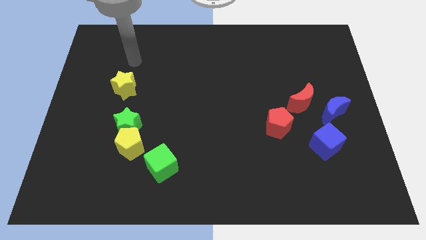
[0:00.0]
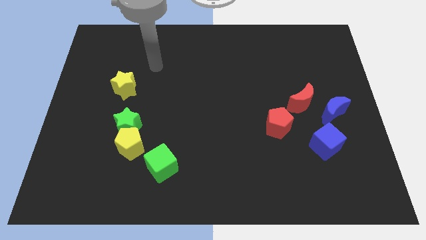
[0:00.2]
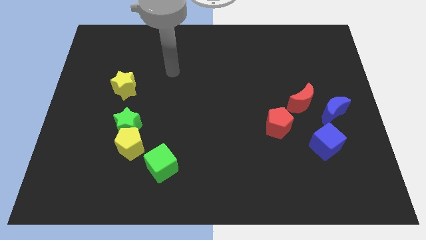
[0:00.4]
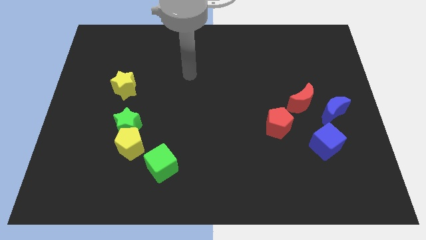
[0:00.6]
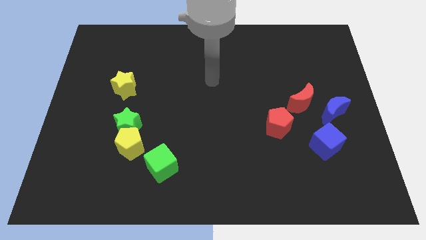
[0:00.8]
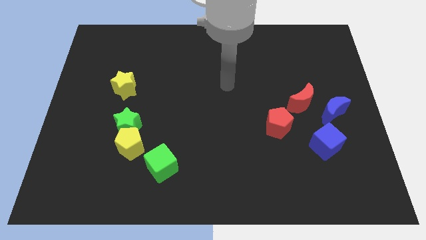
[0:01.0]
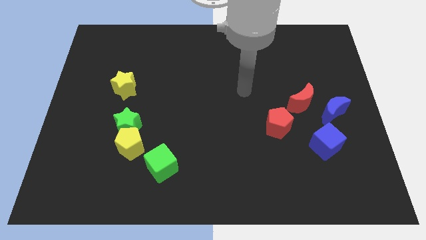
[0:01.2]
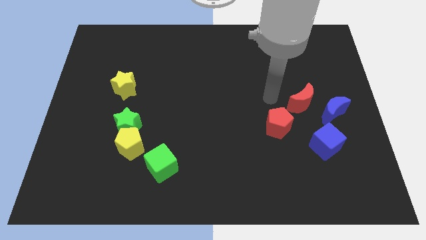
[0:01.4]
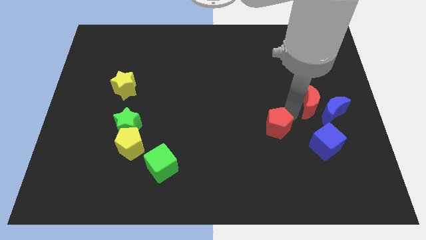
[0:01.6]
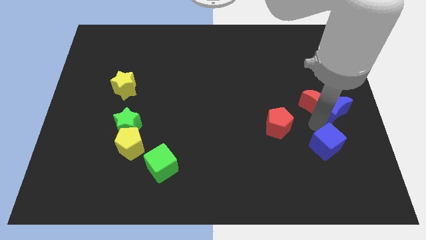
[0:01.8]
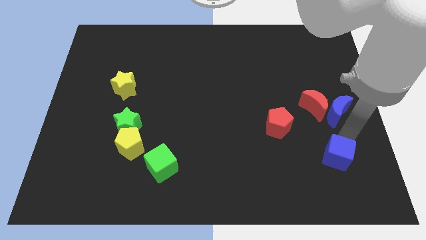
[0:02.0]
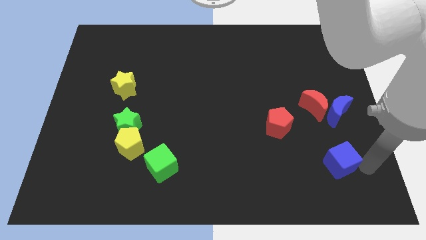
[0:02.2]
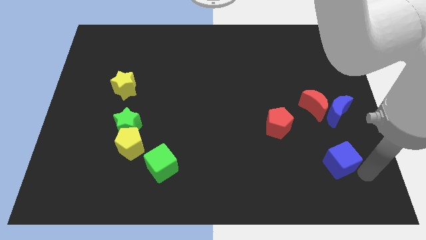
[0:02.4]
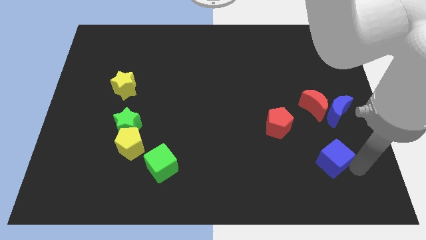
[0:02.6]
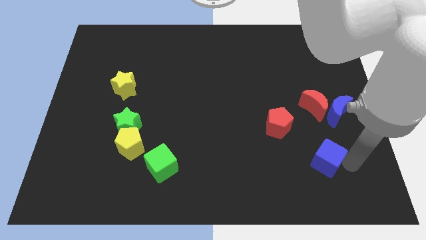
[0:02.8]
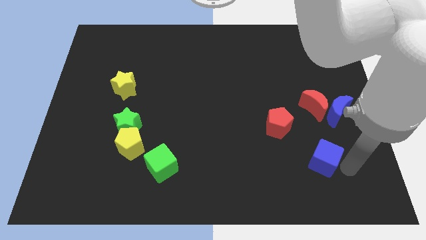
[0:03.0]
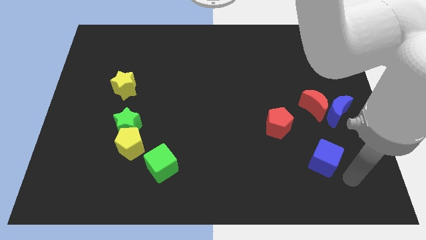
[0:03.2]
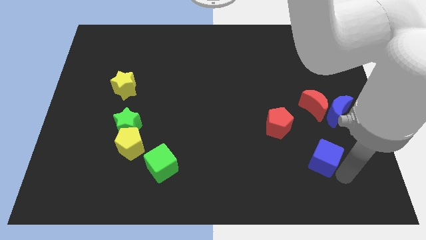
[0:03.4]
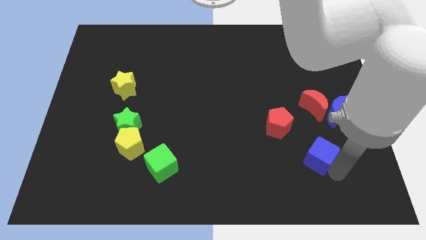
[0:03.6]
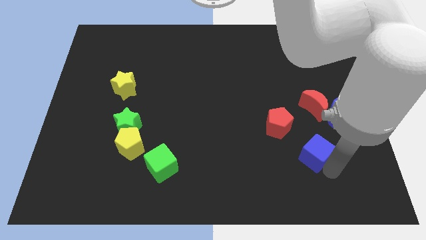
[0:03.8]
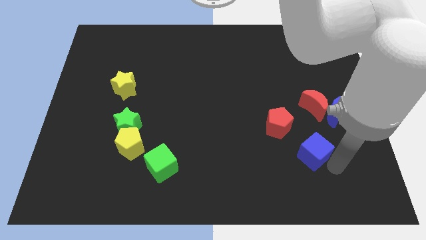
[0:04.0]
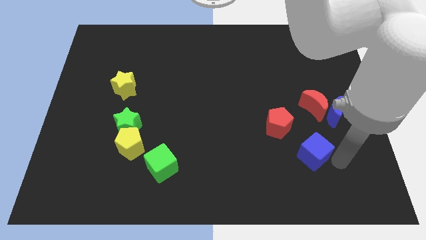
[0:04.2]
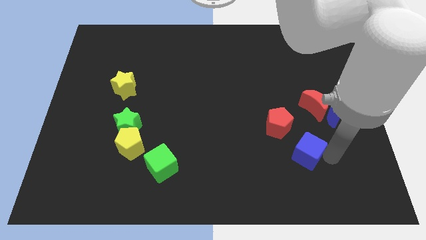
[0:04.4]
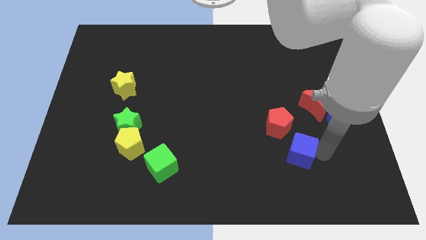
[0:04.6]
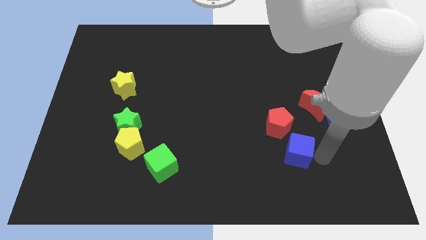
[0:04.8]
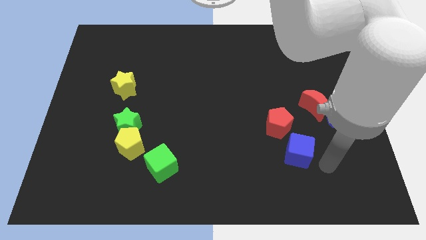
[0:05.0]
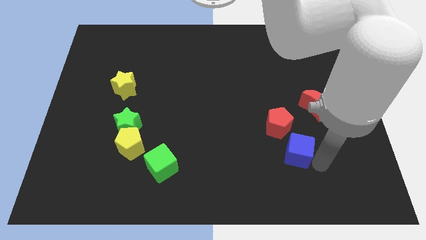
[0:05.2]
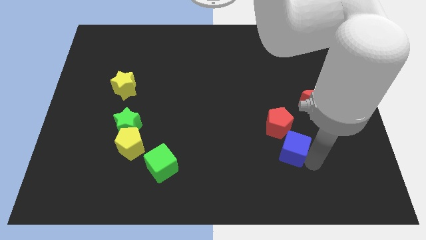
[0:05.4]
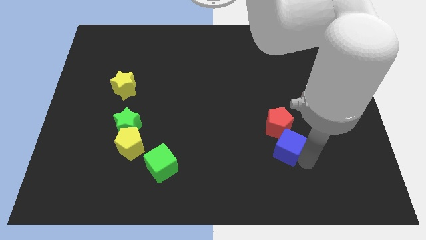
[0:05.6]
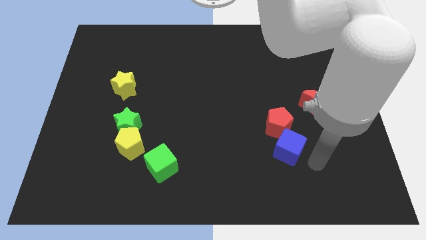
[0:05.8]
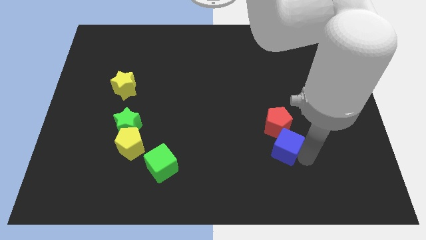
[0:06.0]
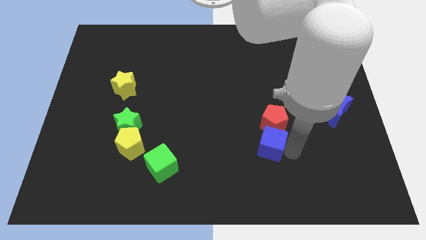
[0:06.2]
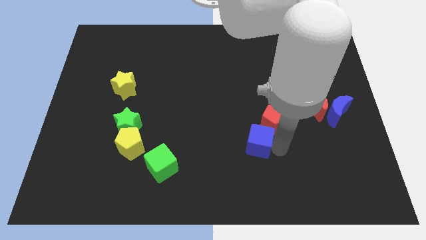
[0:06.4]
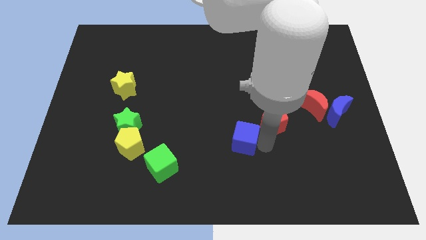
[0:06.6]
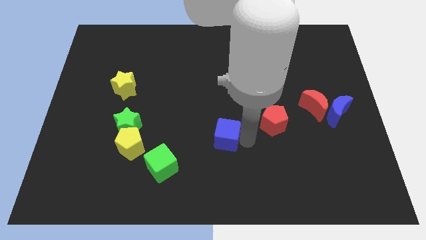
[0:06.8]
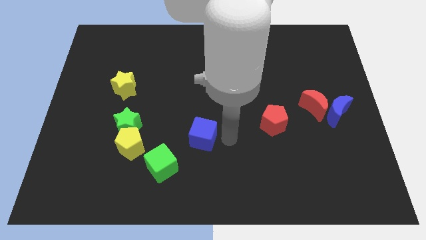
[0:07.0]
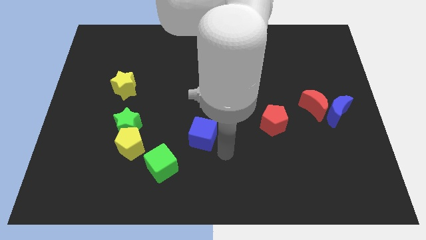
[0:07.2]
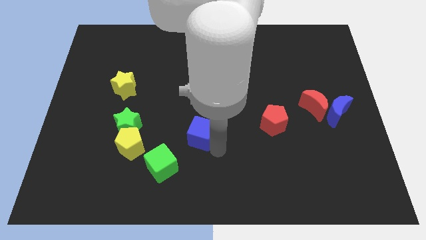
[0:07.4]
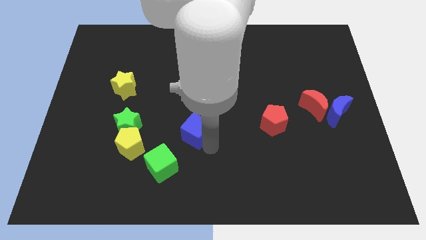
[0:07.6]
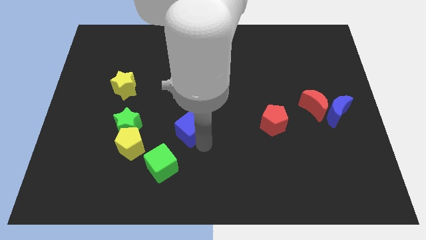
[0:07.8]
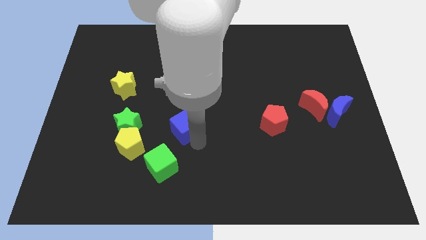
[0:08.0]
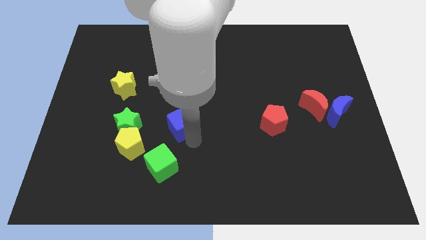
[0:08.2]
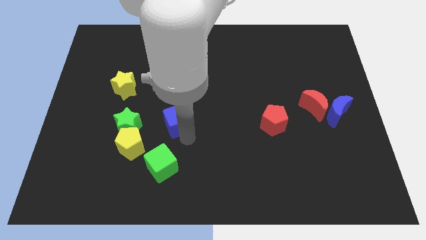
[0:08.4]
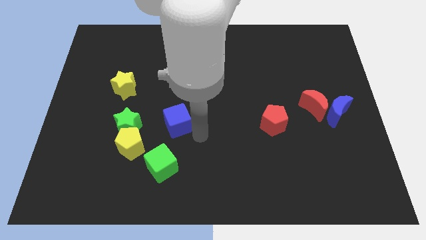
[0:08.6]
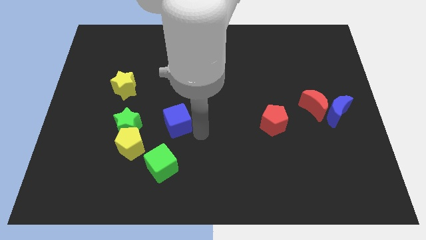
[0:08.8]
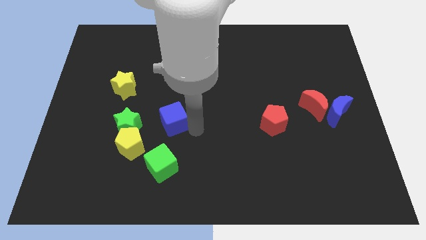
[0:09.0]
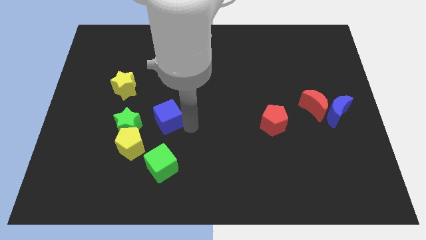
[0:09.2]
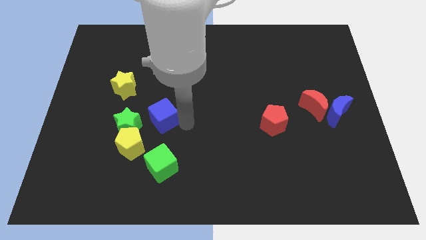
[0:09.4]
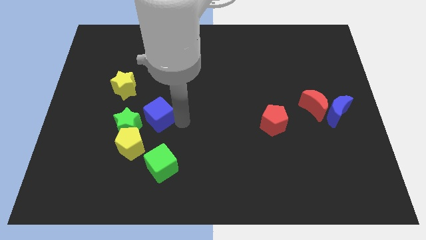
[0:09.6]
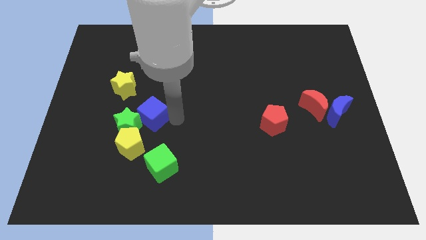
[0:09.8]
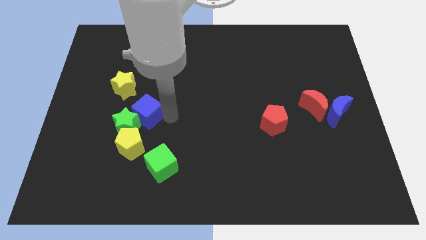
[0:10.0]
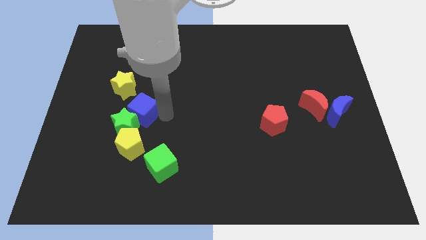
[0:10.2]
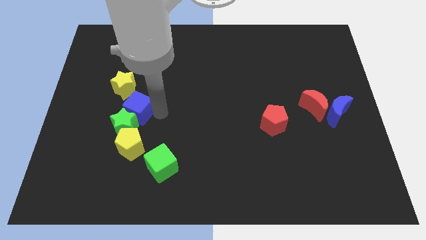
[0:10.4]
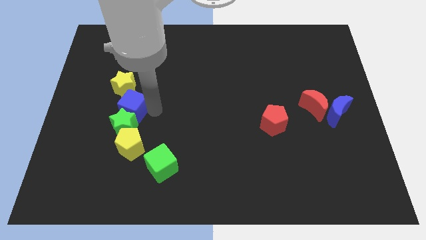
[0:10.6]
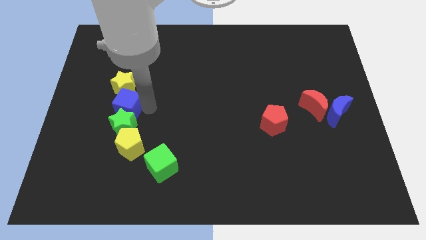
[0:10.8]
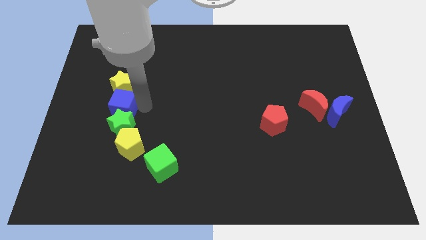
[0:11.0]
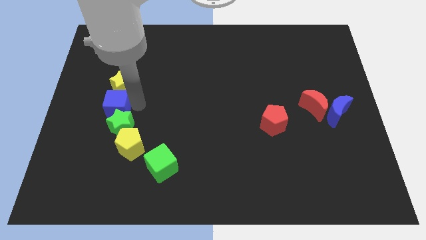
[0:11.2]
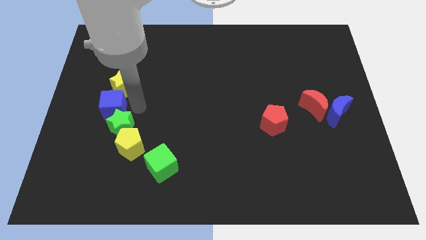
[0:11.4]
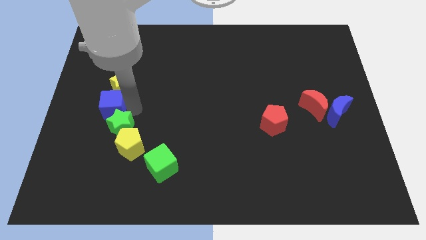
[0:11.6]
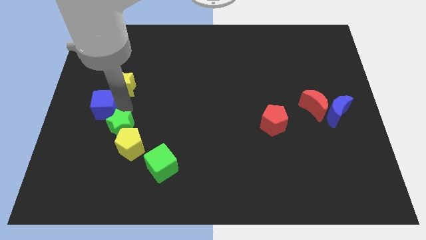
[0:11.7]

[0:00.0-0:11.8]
move the blue cube to the center left
